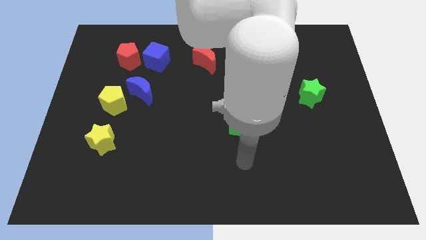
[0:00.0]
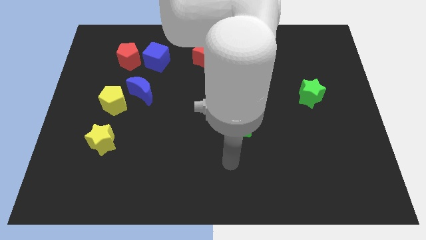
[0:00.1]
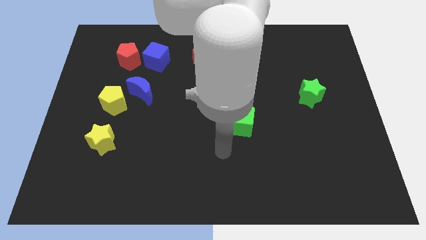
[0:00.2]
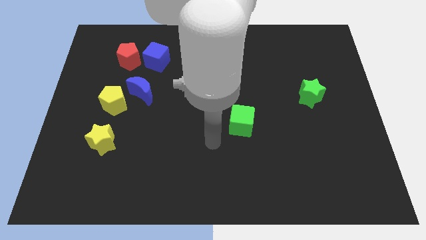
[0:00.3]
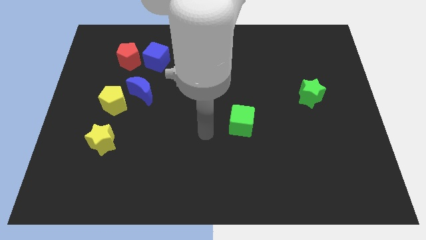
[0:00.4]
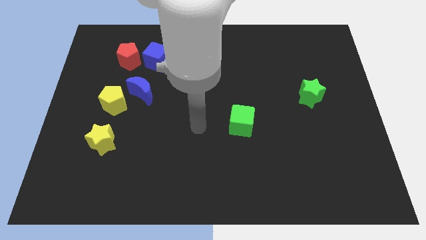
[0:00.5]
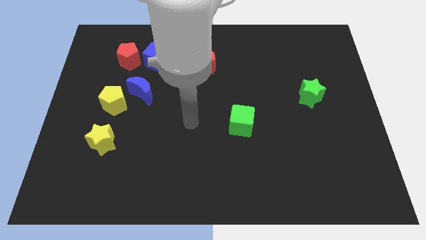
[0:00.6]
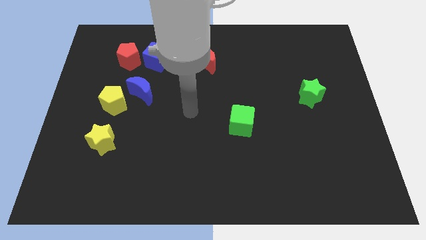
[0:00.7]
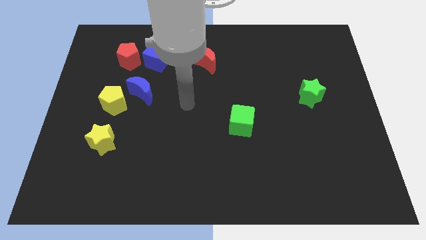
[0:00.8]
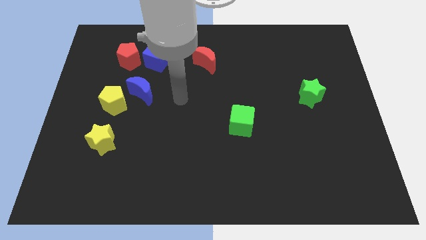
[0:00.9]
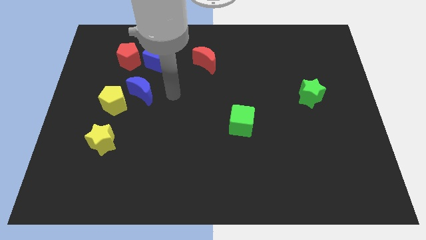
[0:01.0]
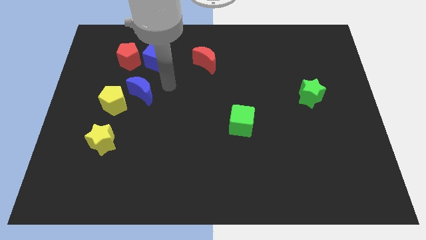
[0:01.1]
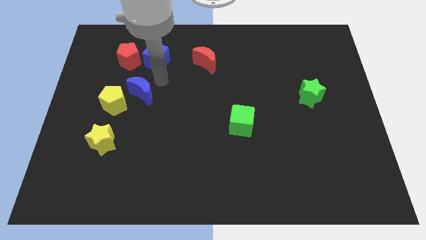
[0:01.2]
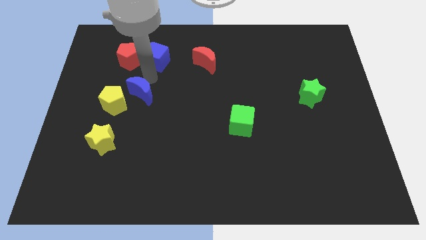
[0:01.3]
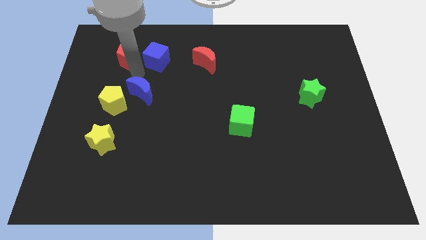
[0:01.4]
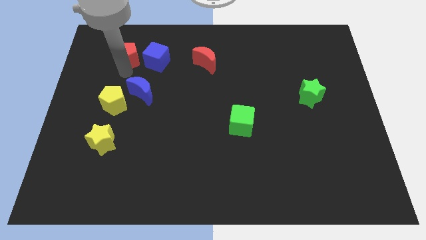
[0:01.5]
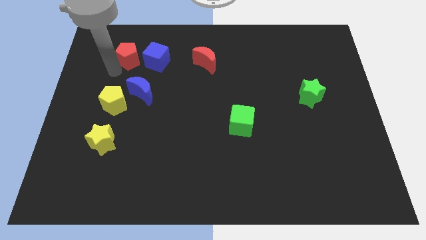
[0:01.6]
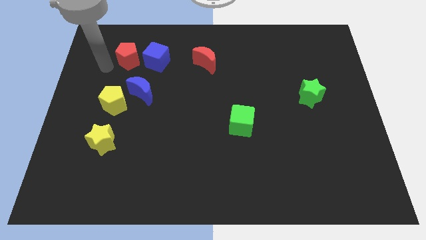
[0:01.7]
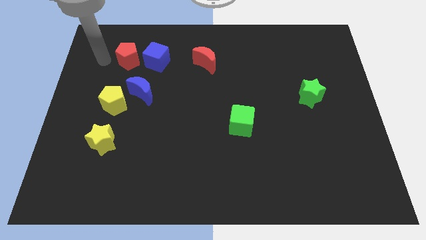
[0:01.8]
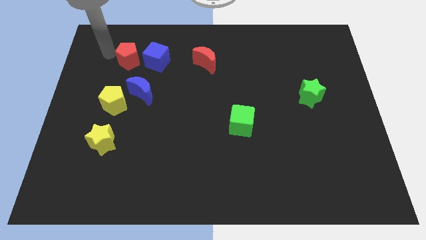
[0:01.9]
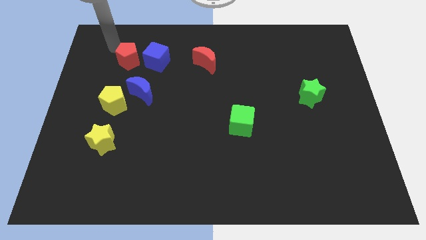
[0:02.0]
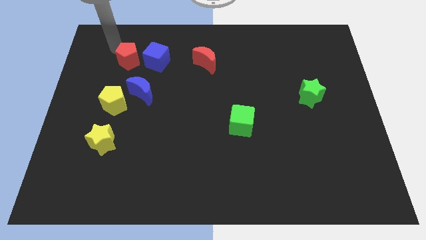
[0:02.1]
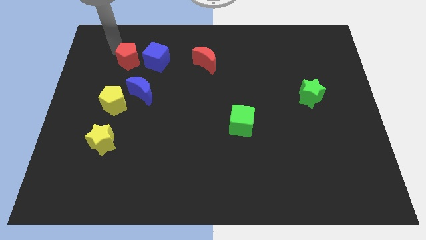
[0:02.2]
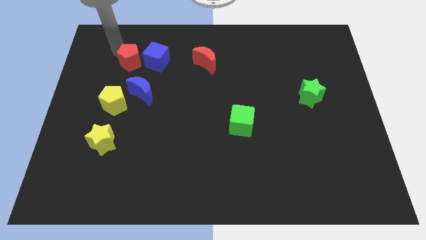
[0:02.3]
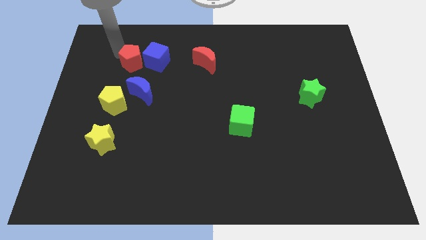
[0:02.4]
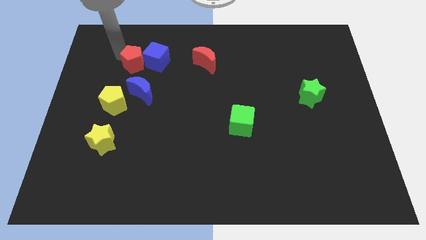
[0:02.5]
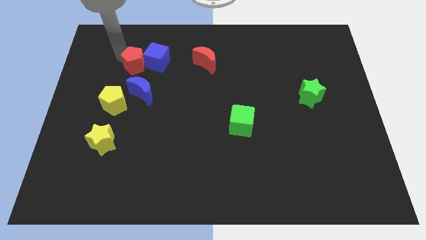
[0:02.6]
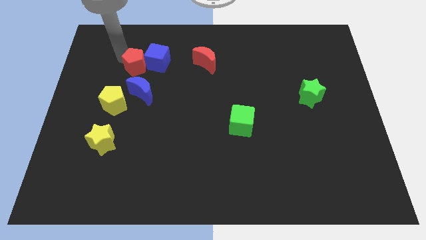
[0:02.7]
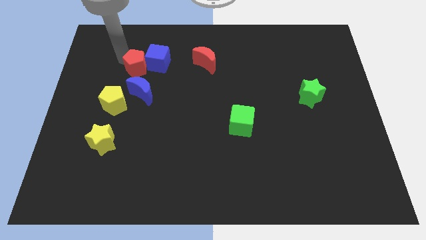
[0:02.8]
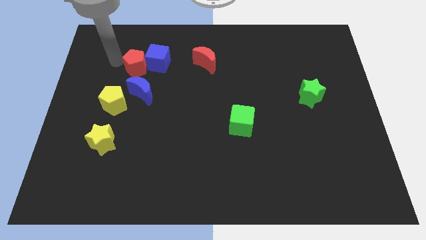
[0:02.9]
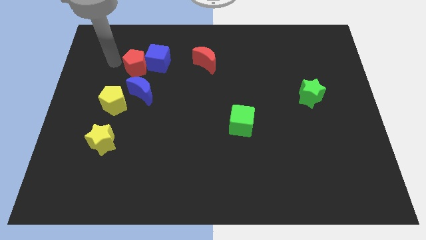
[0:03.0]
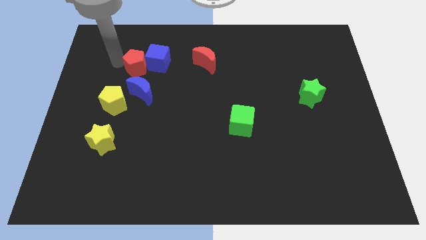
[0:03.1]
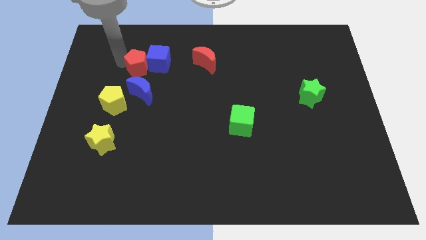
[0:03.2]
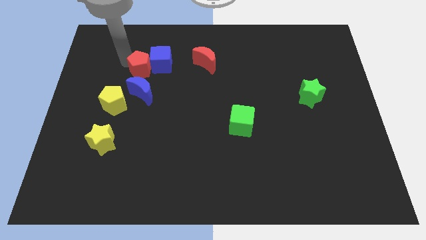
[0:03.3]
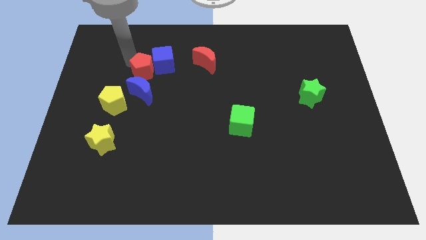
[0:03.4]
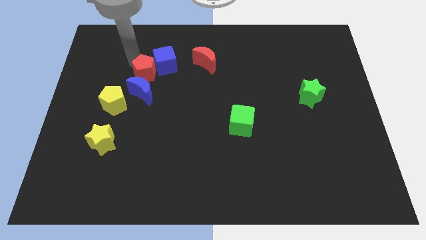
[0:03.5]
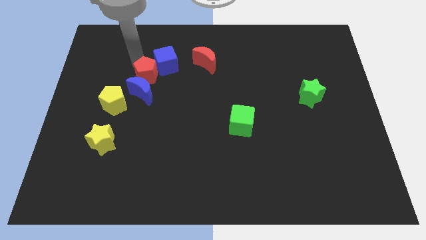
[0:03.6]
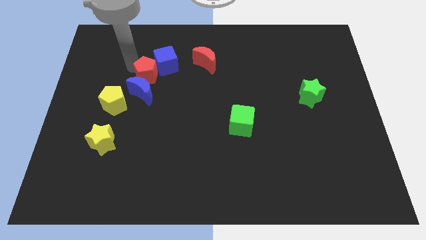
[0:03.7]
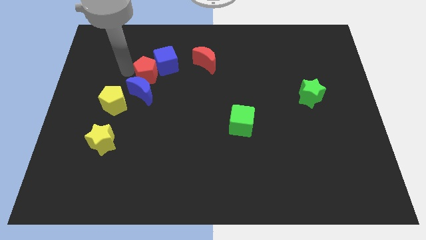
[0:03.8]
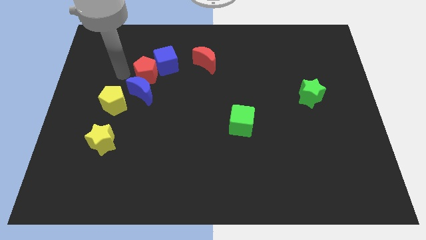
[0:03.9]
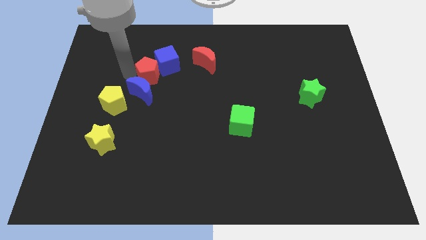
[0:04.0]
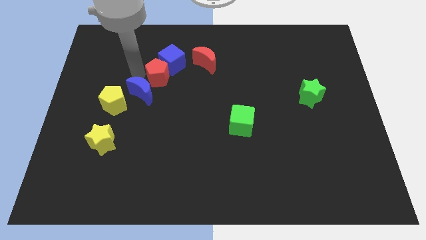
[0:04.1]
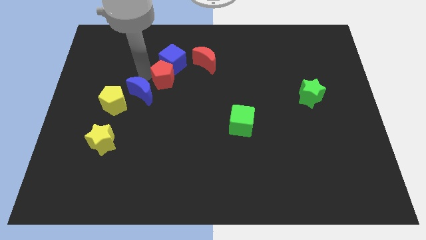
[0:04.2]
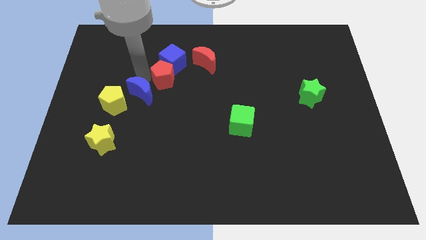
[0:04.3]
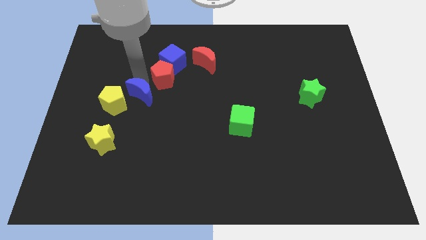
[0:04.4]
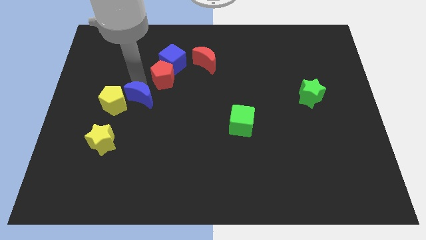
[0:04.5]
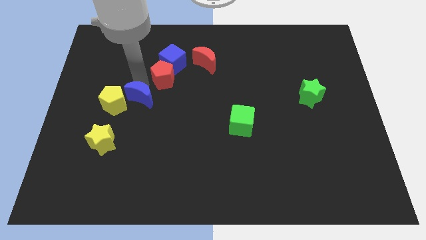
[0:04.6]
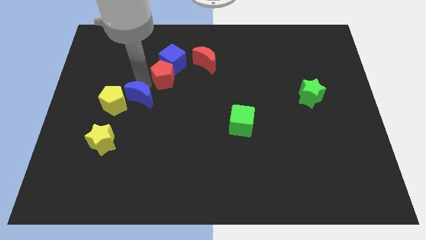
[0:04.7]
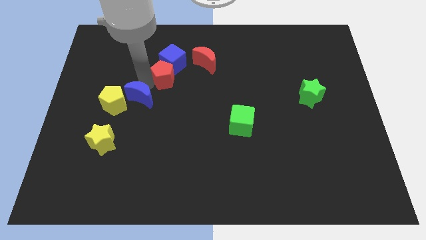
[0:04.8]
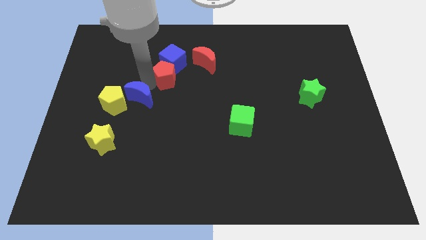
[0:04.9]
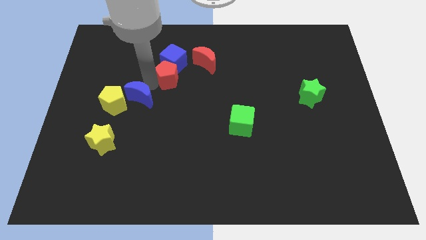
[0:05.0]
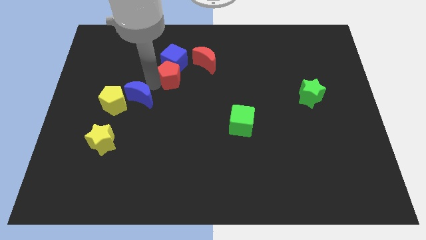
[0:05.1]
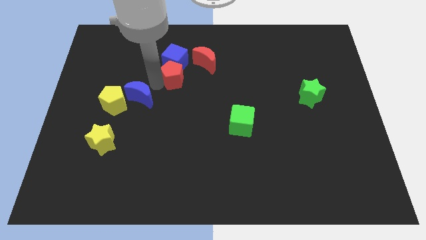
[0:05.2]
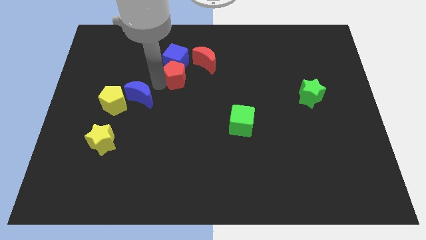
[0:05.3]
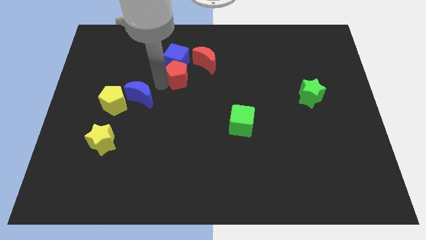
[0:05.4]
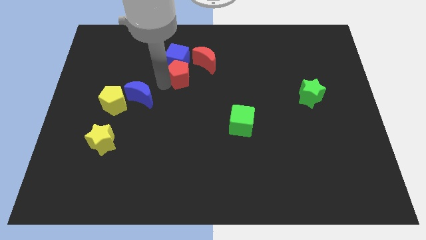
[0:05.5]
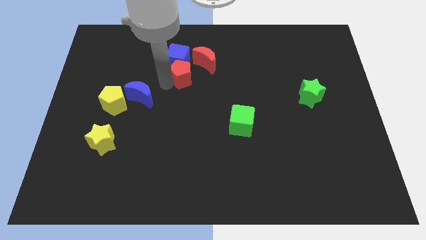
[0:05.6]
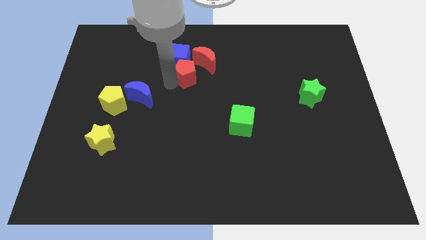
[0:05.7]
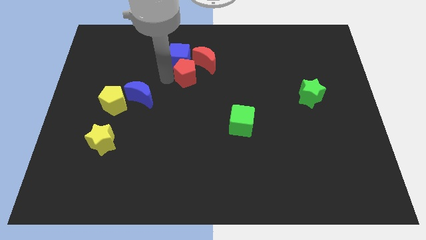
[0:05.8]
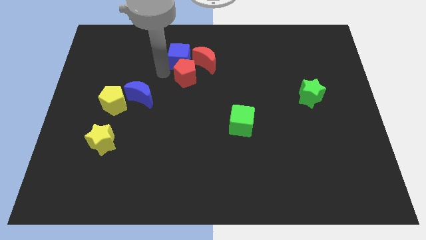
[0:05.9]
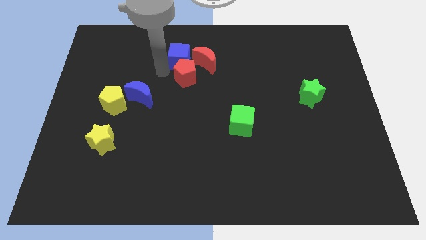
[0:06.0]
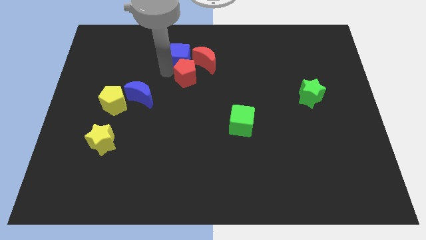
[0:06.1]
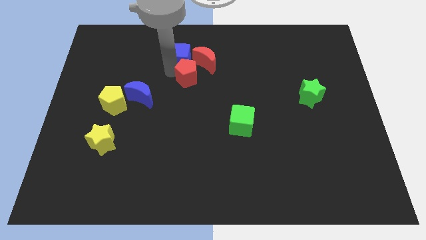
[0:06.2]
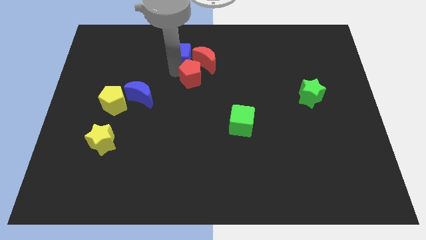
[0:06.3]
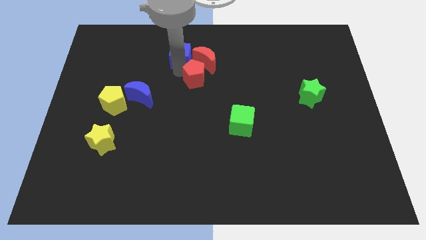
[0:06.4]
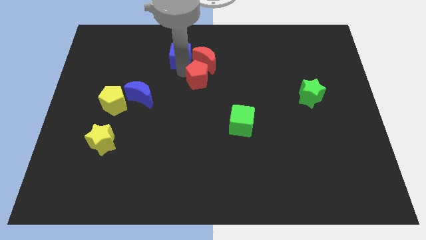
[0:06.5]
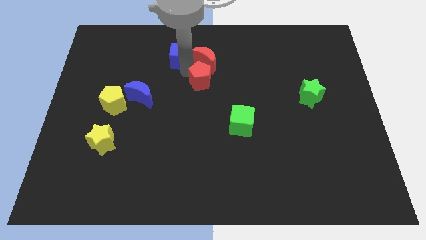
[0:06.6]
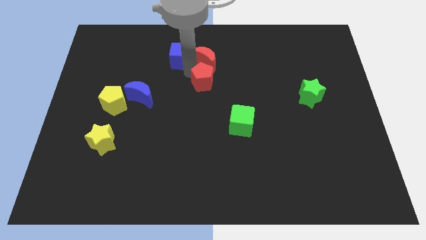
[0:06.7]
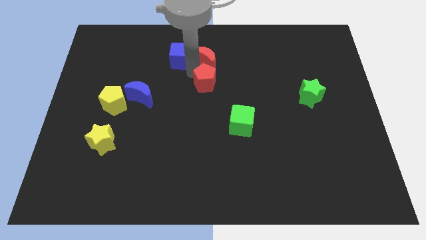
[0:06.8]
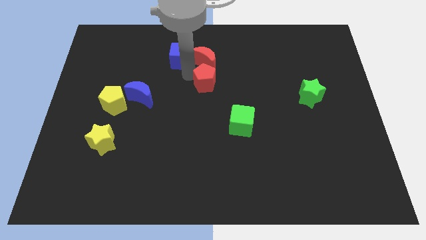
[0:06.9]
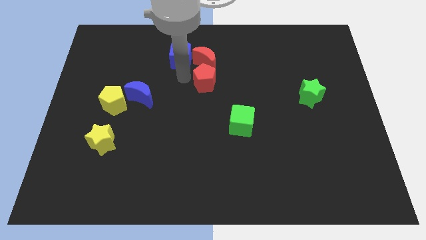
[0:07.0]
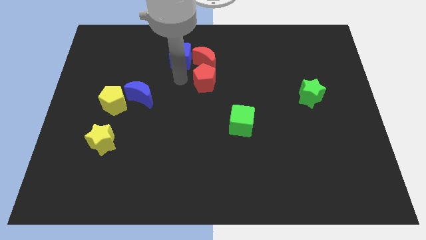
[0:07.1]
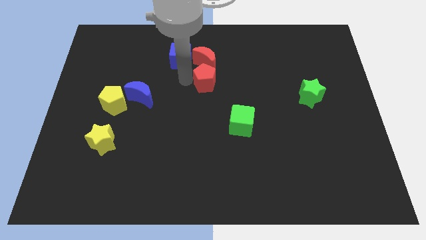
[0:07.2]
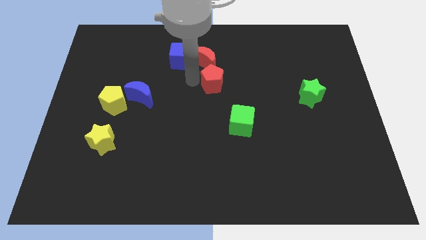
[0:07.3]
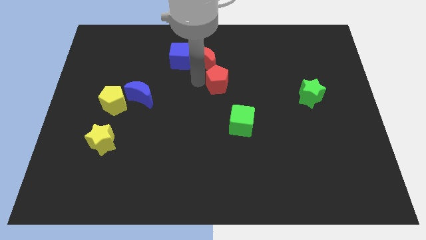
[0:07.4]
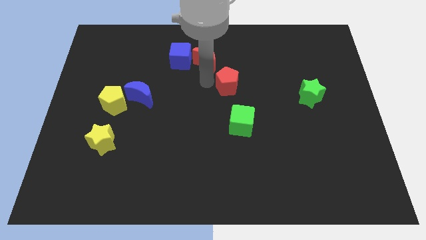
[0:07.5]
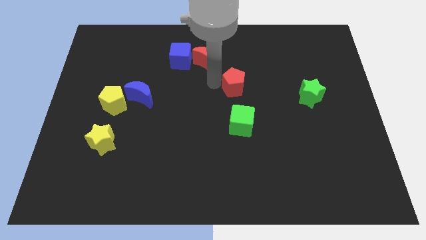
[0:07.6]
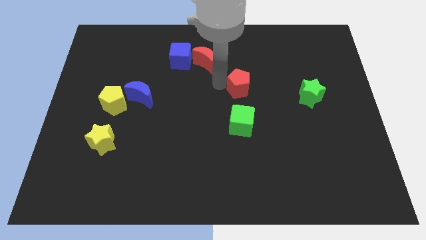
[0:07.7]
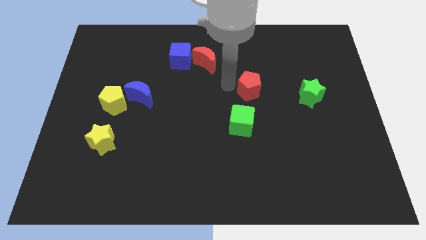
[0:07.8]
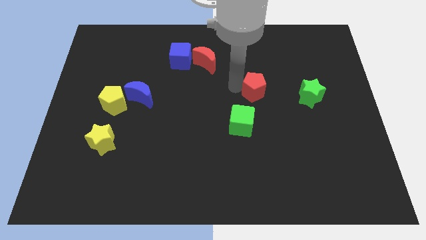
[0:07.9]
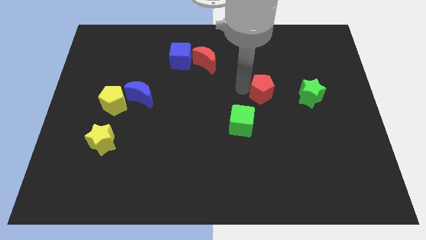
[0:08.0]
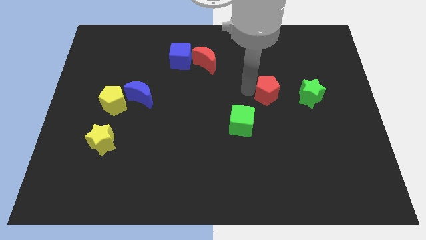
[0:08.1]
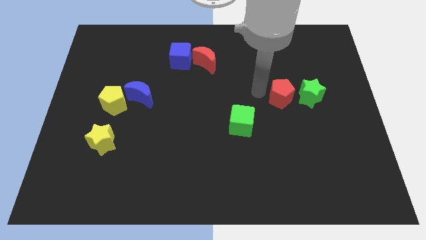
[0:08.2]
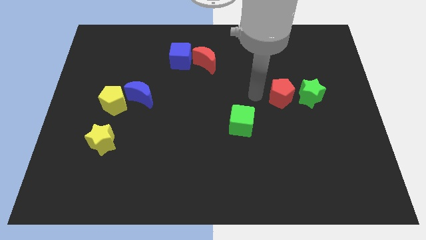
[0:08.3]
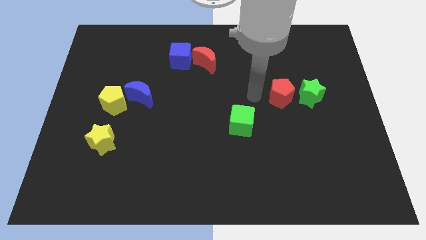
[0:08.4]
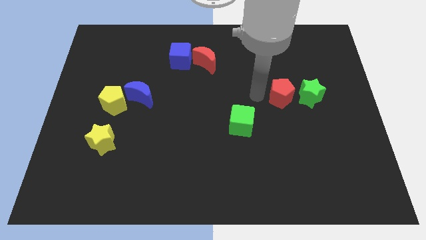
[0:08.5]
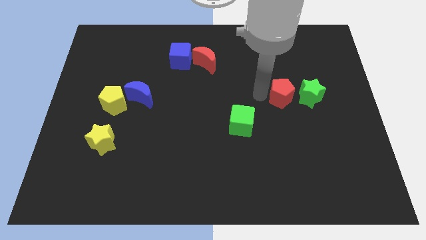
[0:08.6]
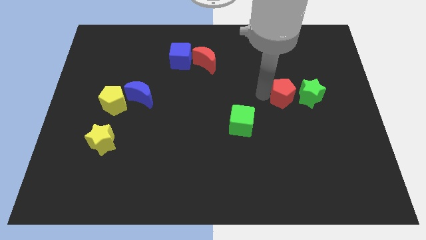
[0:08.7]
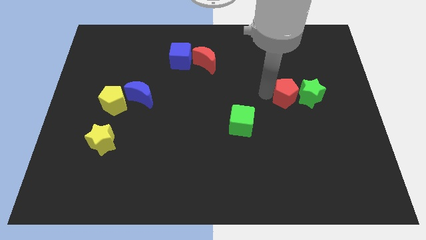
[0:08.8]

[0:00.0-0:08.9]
slide the red pentagon next to the green star
